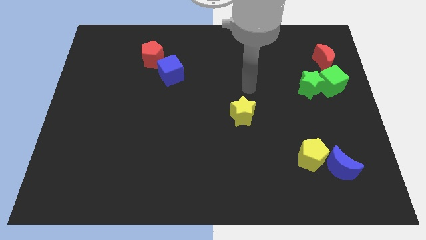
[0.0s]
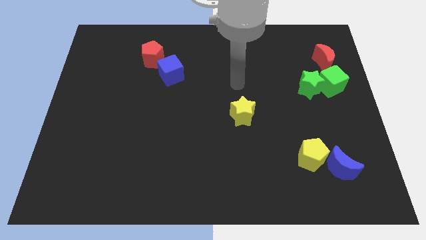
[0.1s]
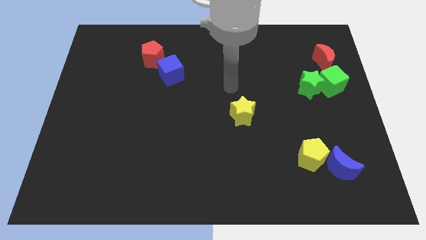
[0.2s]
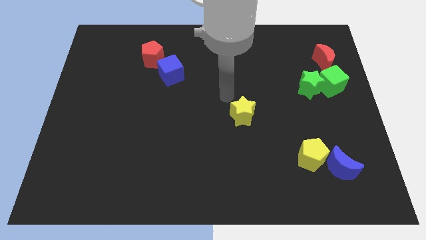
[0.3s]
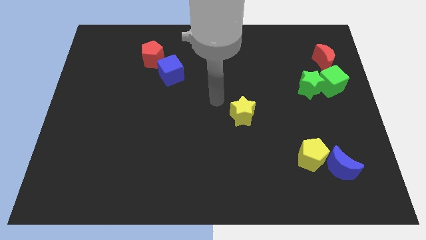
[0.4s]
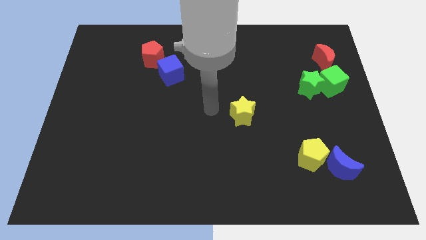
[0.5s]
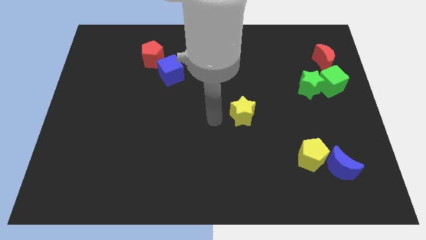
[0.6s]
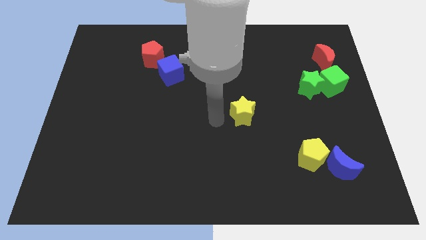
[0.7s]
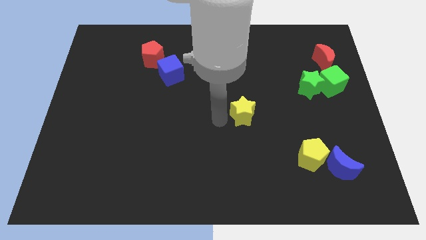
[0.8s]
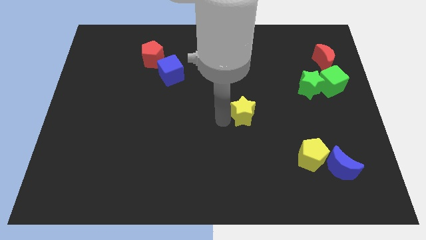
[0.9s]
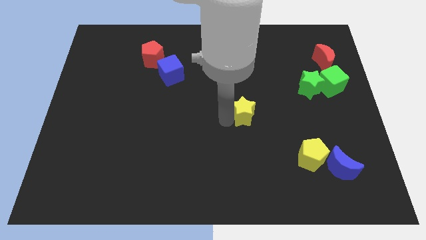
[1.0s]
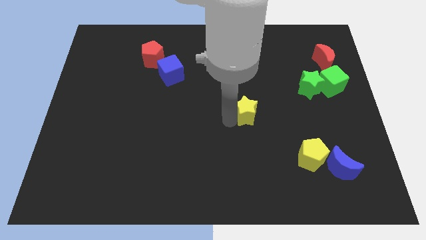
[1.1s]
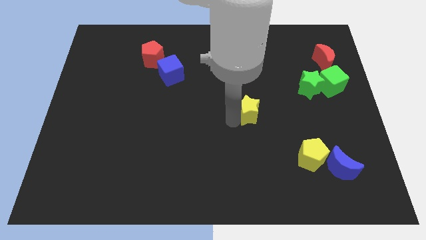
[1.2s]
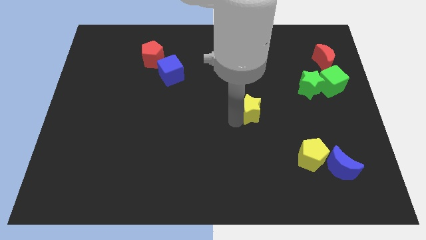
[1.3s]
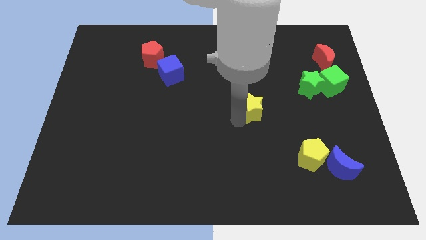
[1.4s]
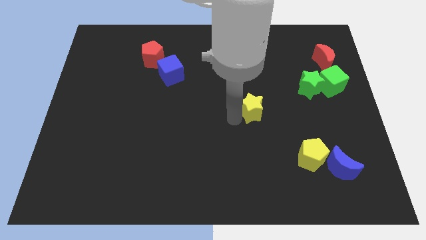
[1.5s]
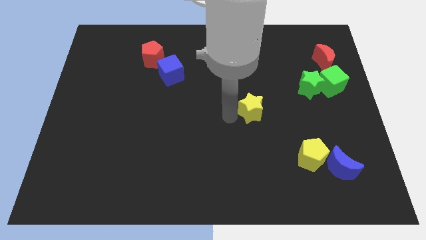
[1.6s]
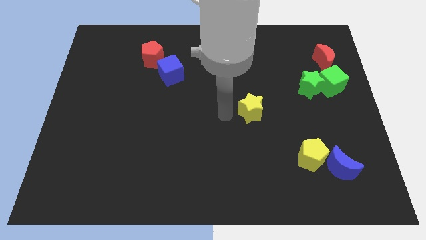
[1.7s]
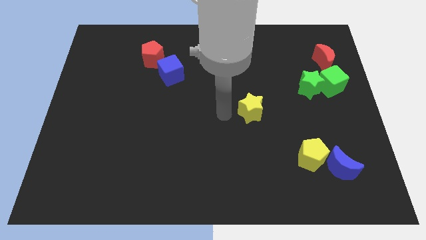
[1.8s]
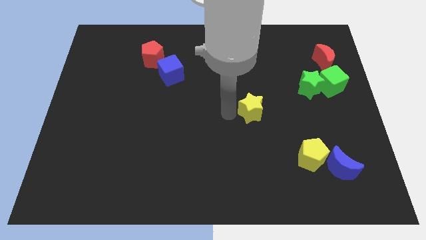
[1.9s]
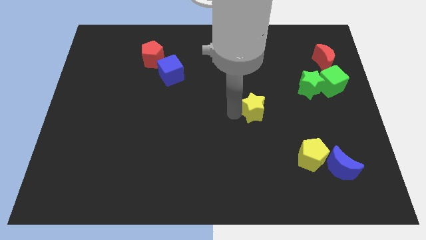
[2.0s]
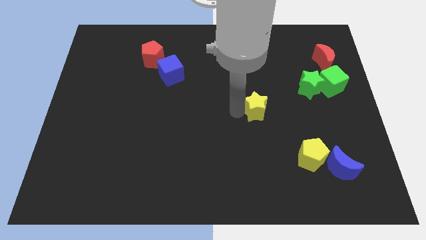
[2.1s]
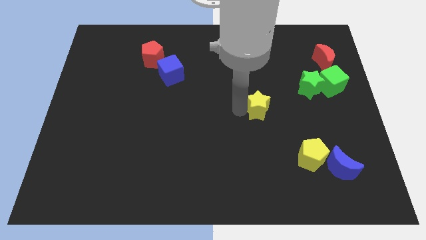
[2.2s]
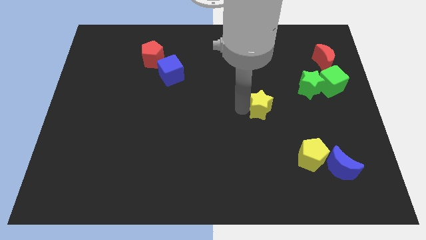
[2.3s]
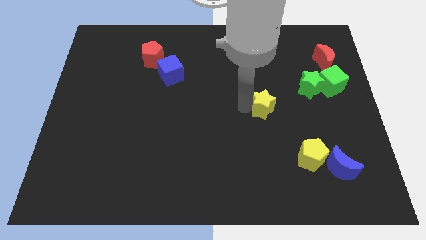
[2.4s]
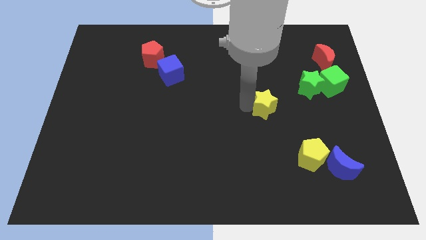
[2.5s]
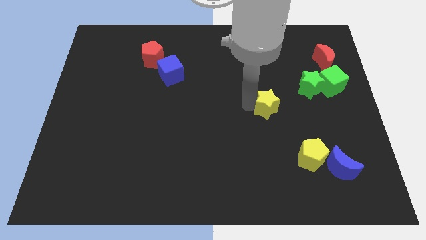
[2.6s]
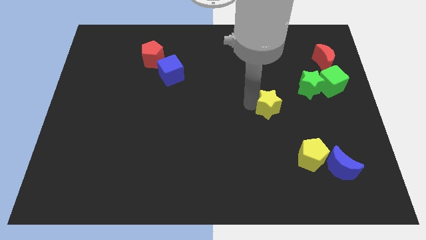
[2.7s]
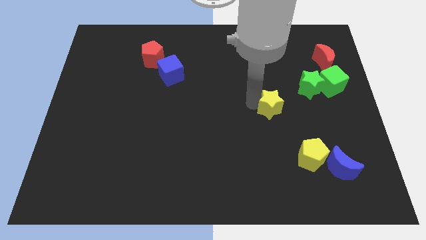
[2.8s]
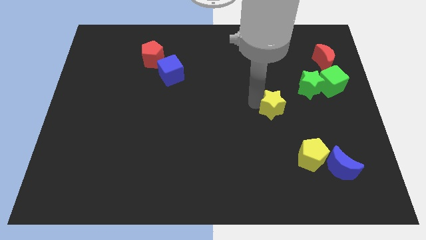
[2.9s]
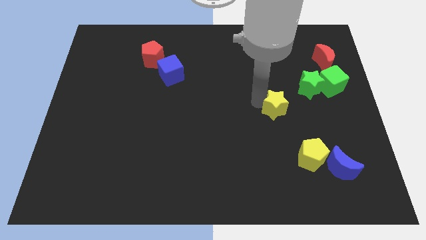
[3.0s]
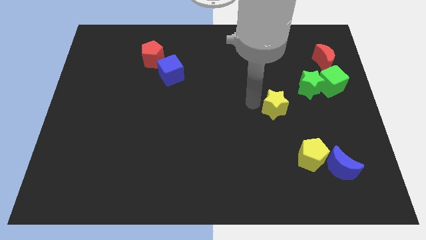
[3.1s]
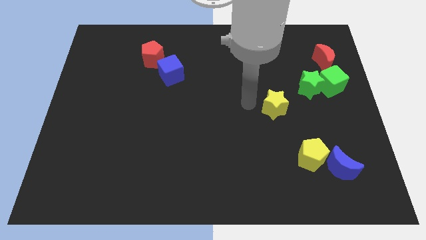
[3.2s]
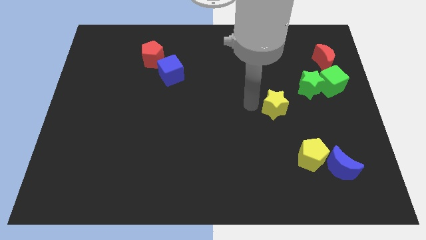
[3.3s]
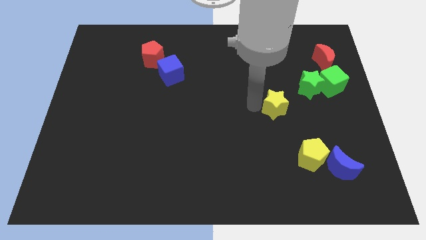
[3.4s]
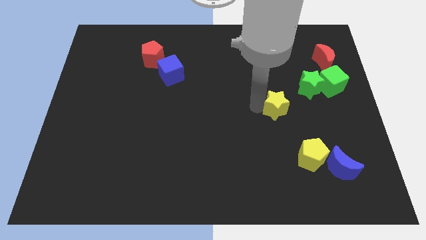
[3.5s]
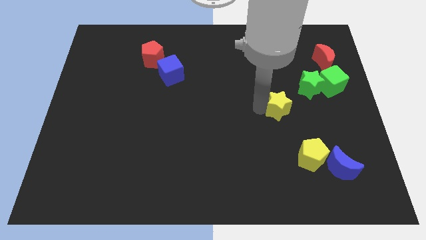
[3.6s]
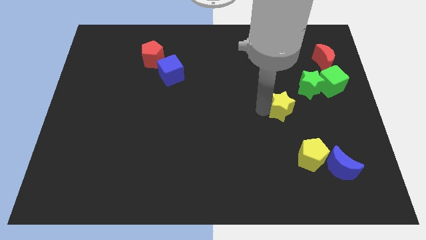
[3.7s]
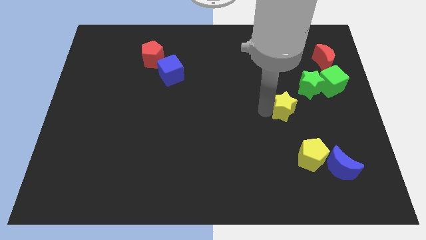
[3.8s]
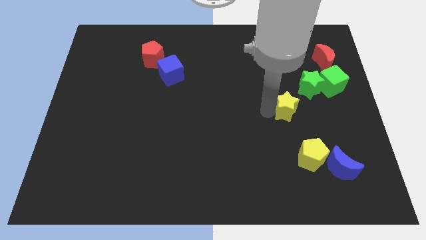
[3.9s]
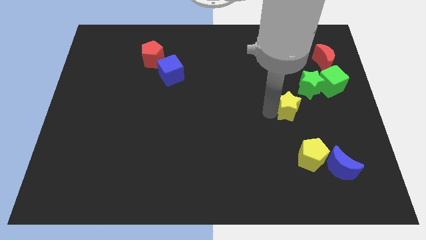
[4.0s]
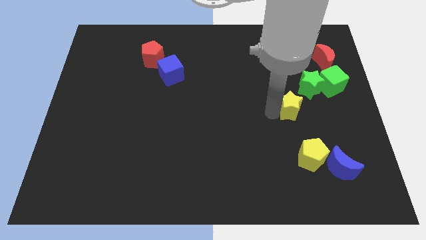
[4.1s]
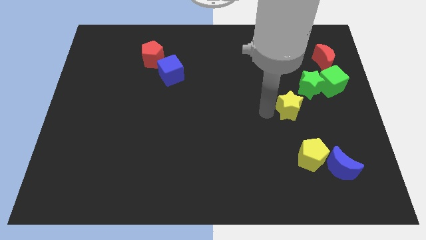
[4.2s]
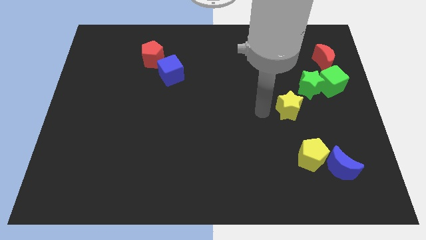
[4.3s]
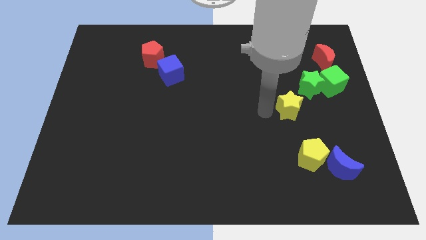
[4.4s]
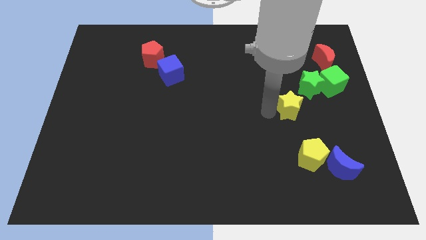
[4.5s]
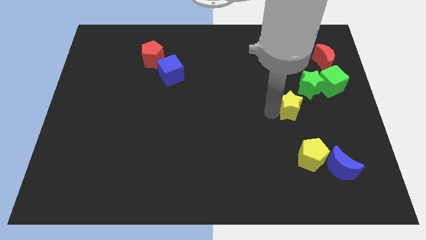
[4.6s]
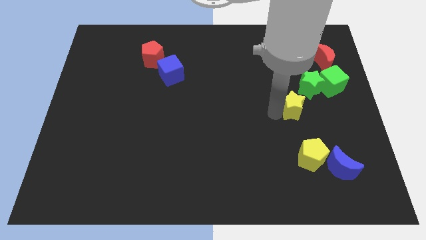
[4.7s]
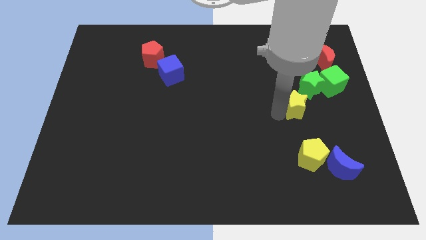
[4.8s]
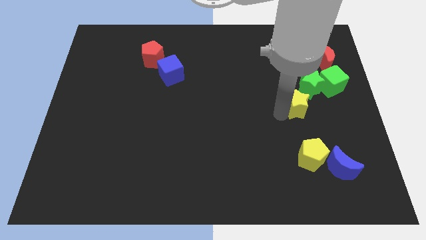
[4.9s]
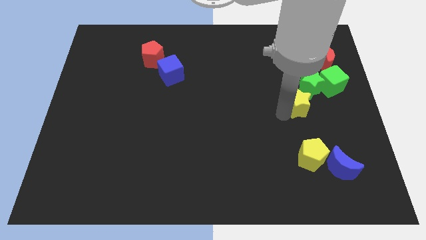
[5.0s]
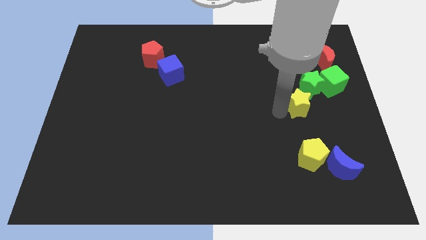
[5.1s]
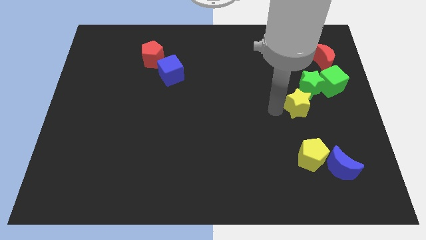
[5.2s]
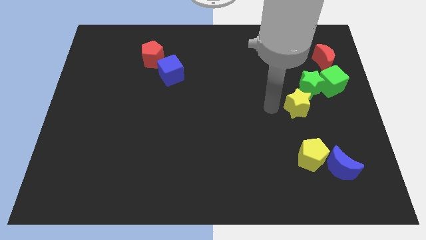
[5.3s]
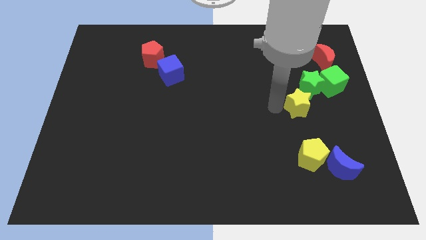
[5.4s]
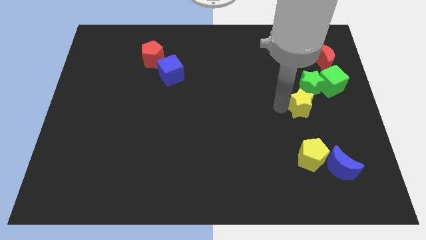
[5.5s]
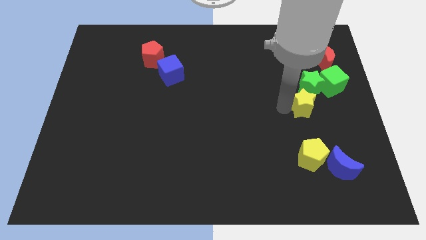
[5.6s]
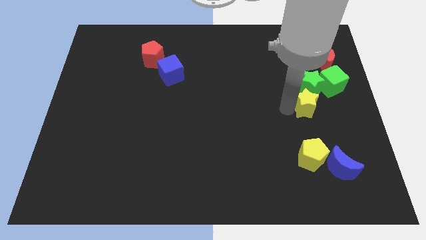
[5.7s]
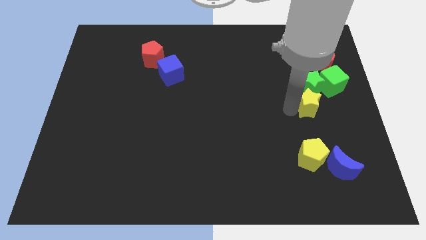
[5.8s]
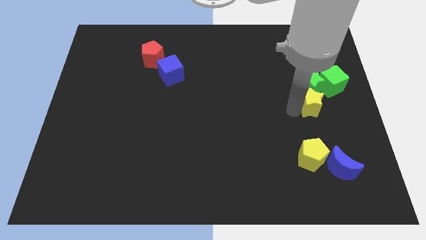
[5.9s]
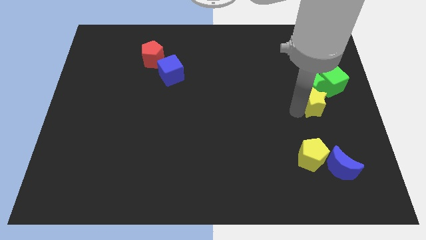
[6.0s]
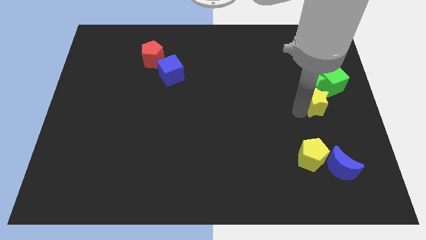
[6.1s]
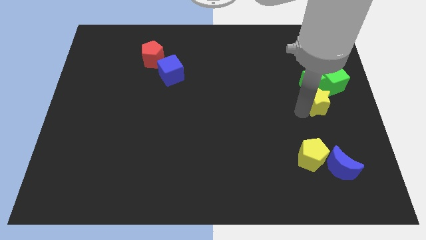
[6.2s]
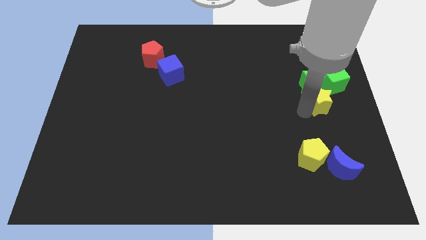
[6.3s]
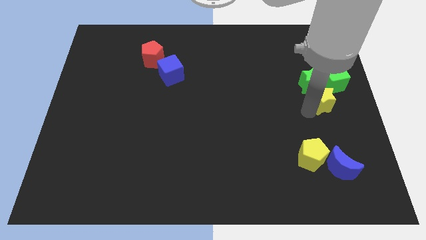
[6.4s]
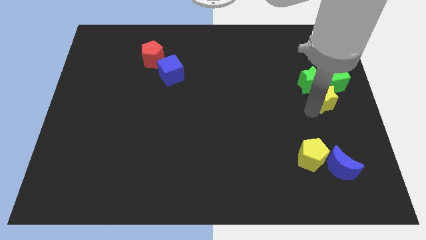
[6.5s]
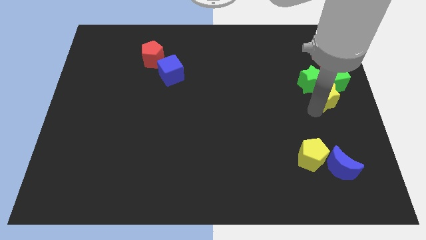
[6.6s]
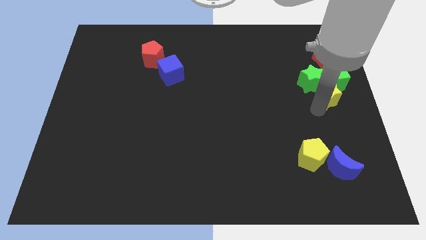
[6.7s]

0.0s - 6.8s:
push the yellow star towards the green cube

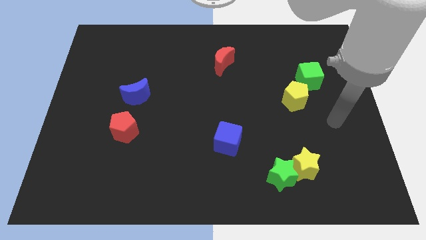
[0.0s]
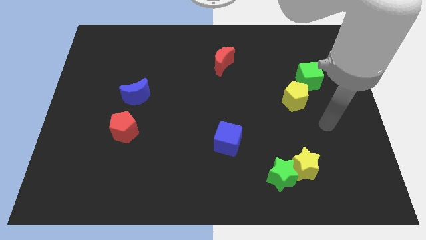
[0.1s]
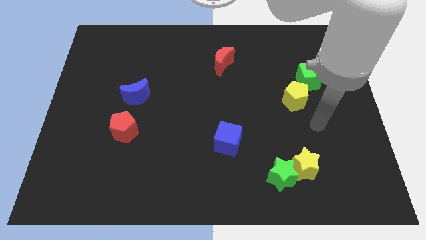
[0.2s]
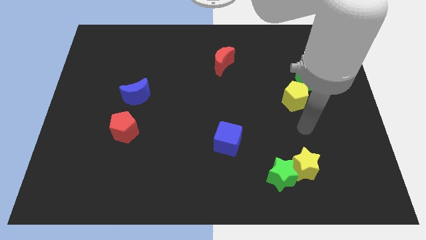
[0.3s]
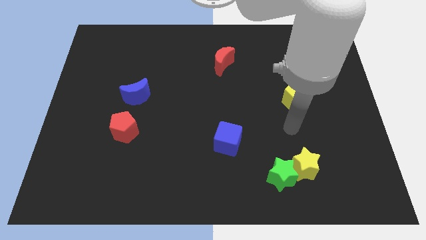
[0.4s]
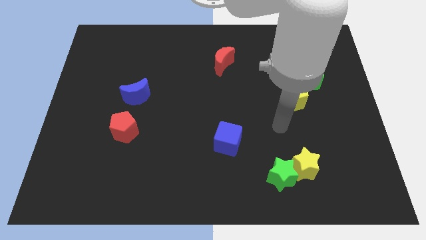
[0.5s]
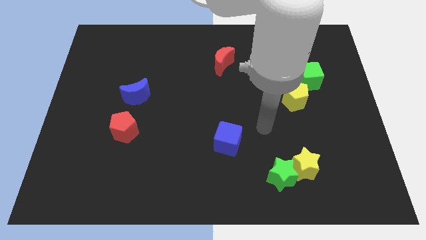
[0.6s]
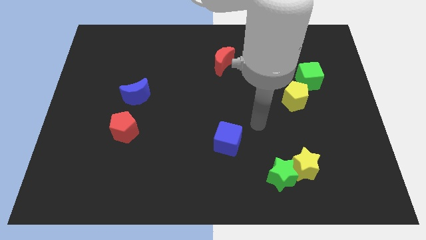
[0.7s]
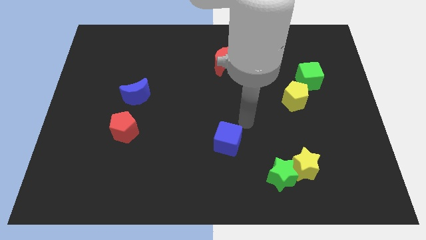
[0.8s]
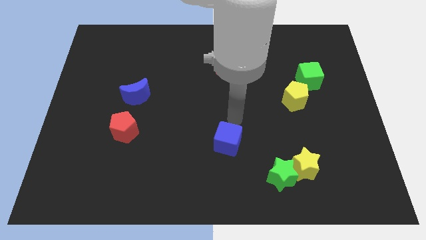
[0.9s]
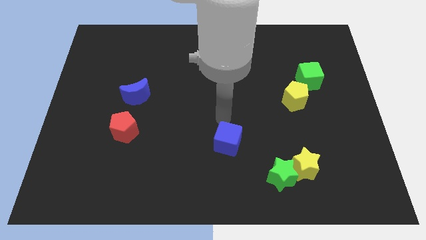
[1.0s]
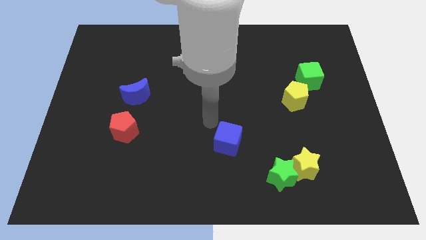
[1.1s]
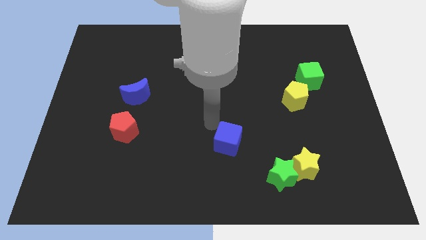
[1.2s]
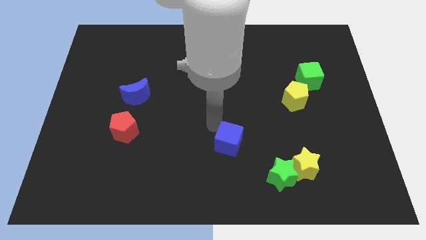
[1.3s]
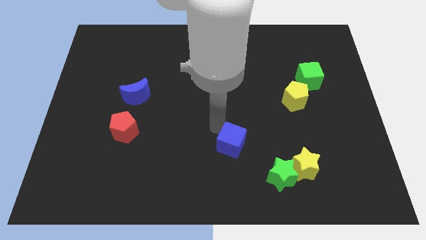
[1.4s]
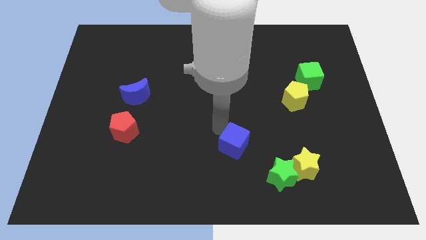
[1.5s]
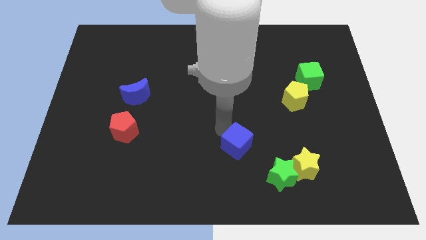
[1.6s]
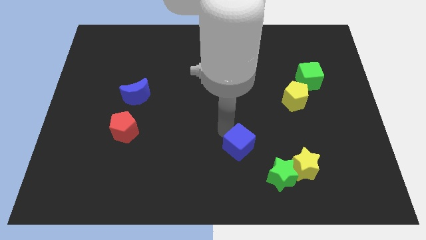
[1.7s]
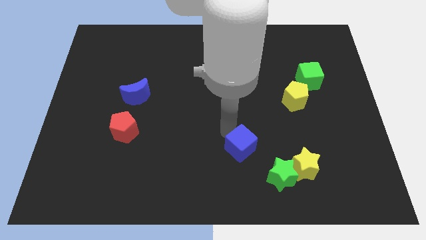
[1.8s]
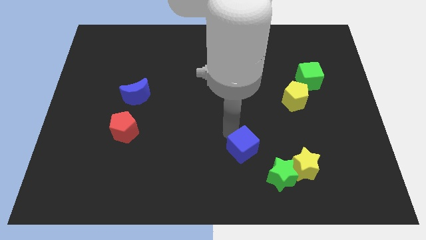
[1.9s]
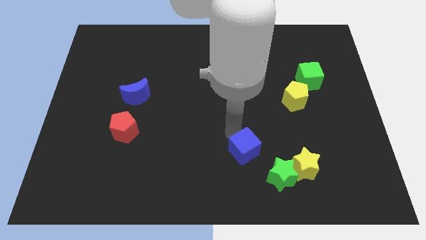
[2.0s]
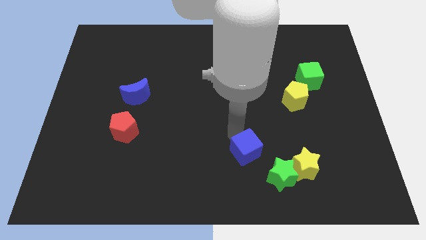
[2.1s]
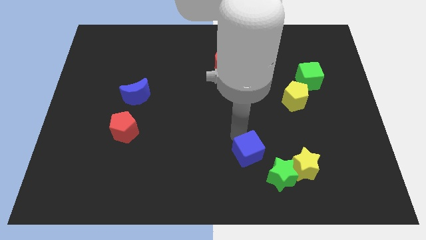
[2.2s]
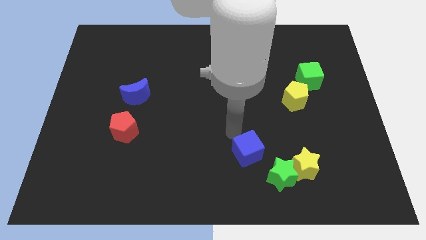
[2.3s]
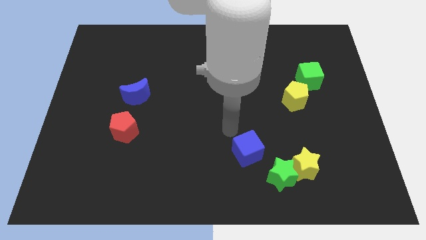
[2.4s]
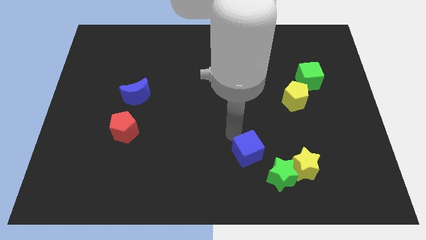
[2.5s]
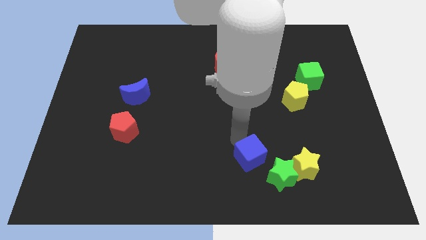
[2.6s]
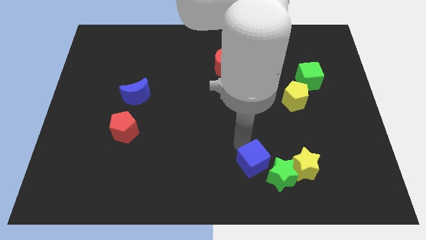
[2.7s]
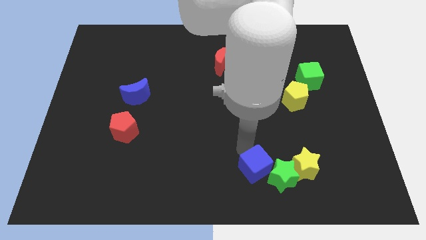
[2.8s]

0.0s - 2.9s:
move the blue cube to the green star
